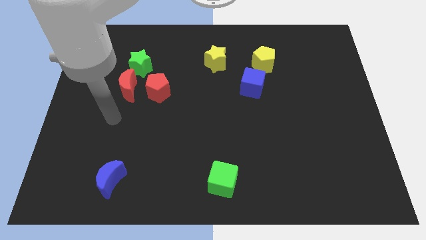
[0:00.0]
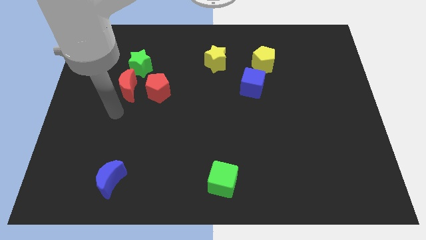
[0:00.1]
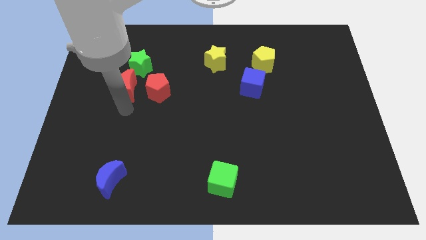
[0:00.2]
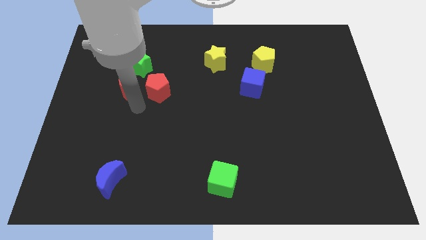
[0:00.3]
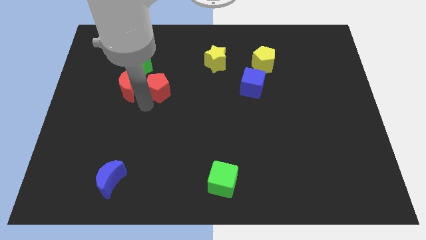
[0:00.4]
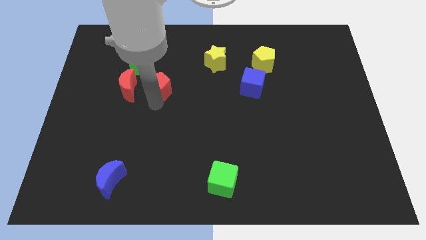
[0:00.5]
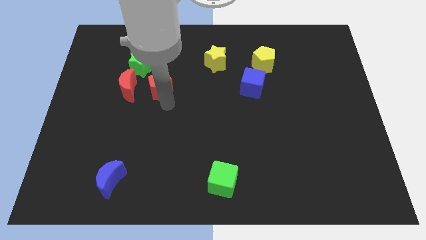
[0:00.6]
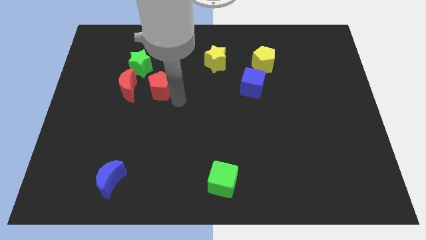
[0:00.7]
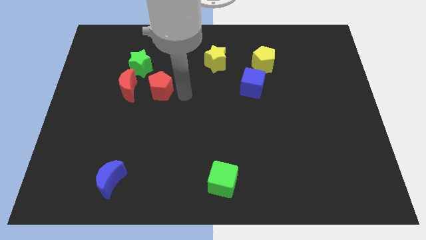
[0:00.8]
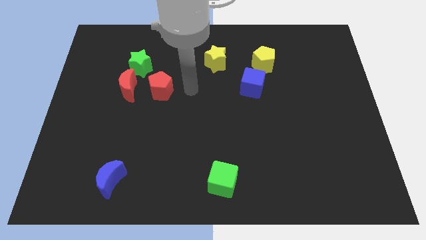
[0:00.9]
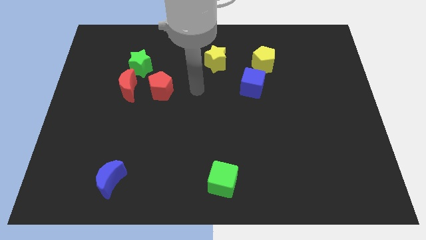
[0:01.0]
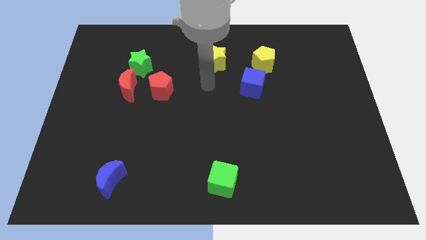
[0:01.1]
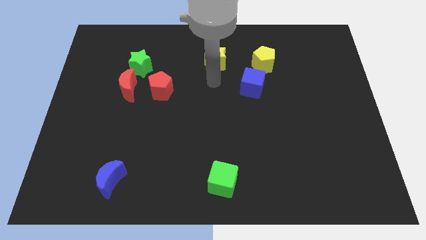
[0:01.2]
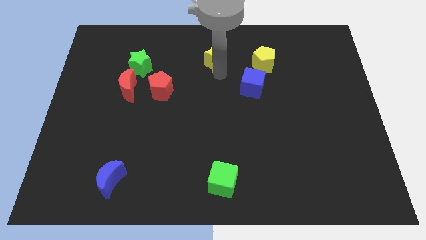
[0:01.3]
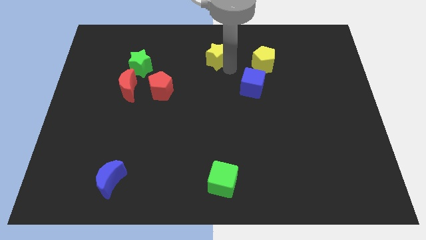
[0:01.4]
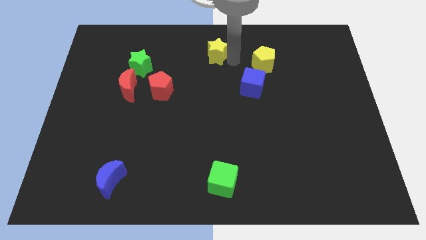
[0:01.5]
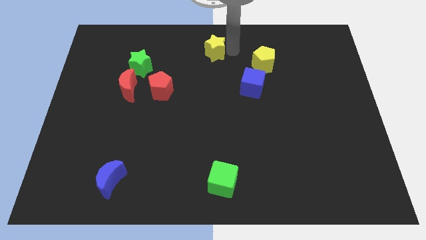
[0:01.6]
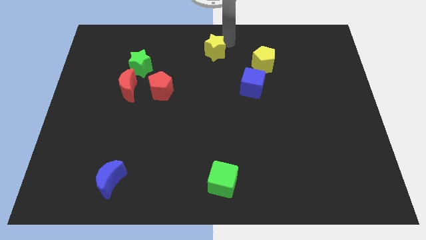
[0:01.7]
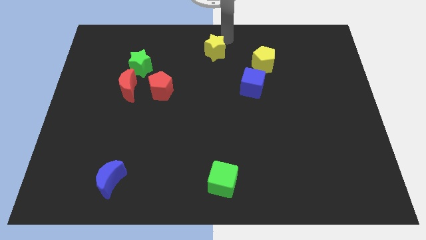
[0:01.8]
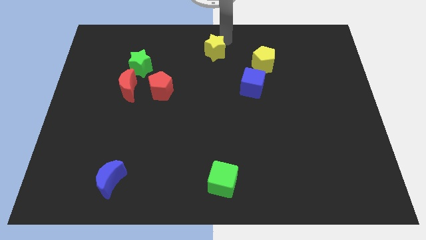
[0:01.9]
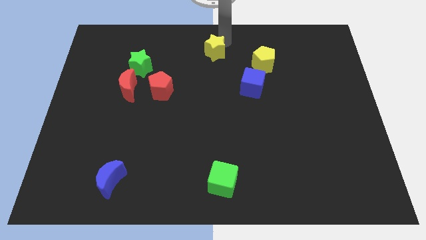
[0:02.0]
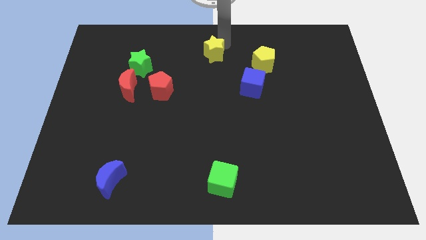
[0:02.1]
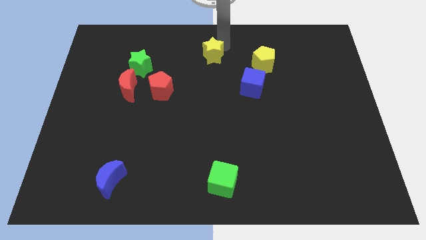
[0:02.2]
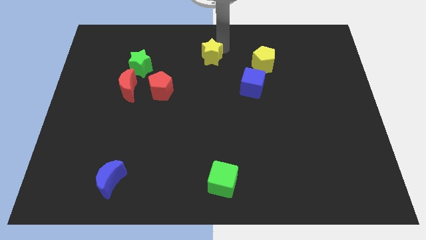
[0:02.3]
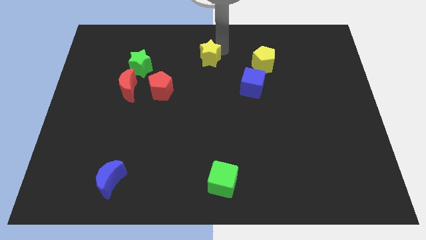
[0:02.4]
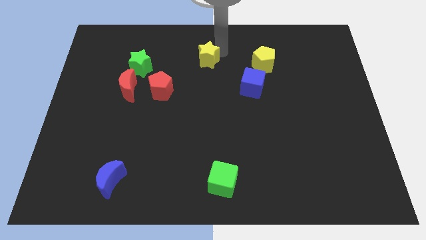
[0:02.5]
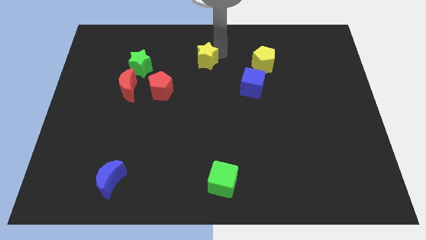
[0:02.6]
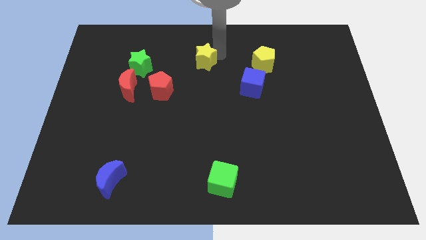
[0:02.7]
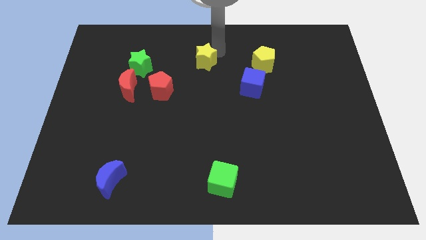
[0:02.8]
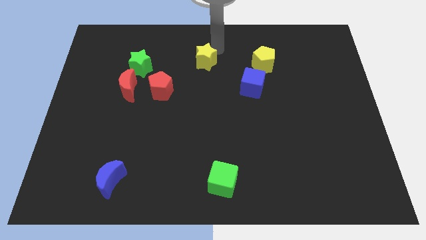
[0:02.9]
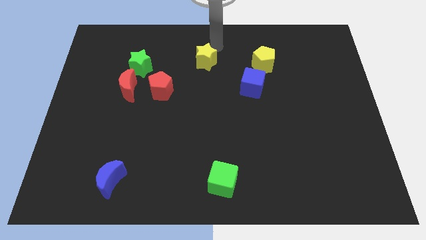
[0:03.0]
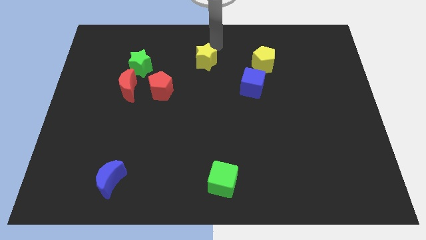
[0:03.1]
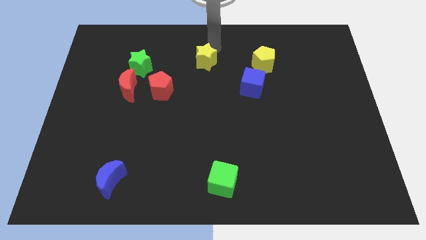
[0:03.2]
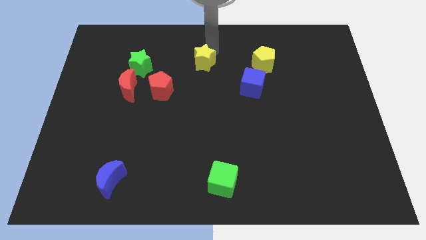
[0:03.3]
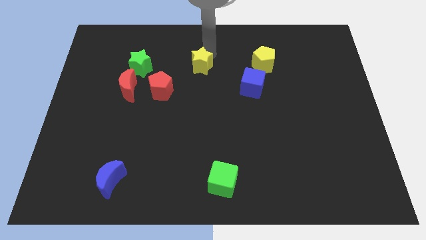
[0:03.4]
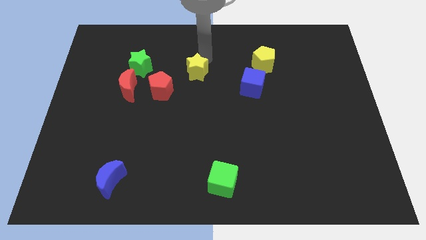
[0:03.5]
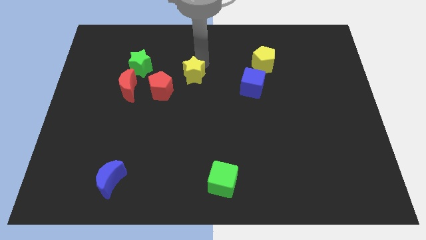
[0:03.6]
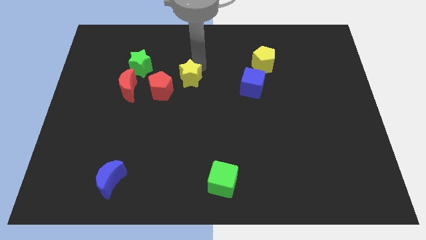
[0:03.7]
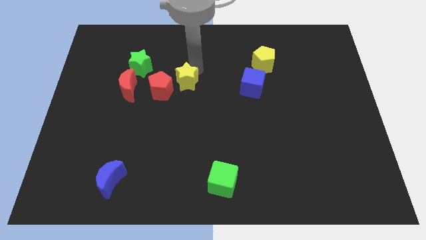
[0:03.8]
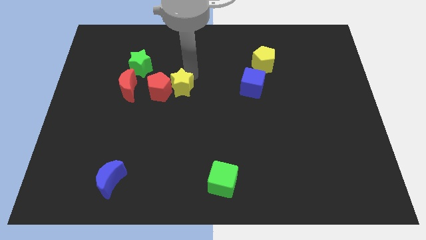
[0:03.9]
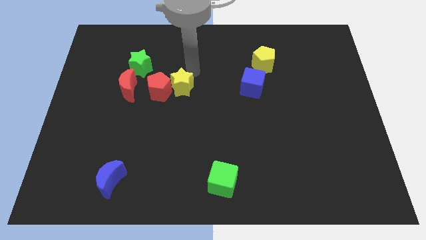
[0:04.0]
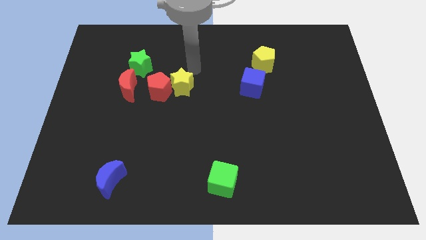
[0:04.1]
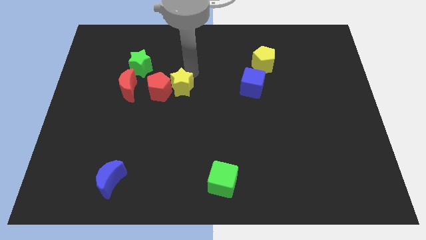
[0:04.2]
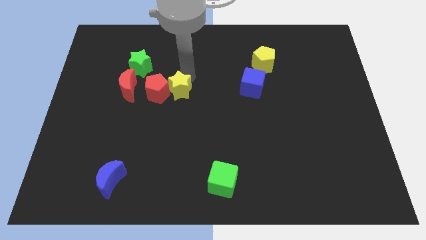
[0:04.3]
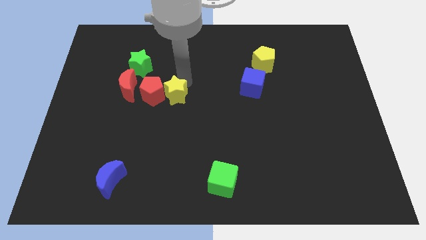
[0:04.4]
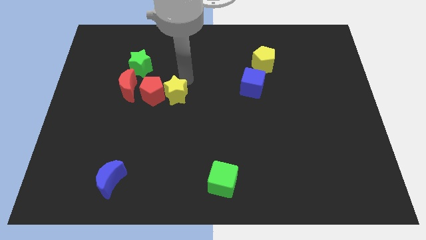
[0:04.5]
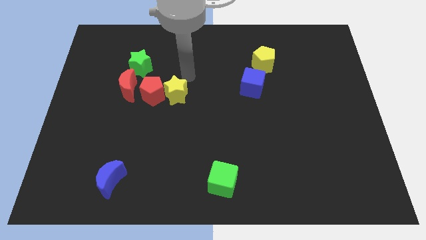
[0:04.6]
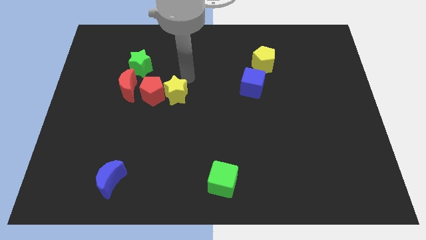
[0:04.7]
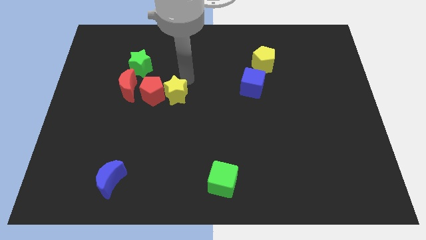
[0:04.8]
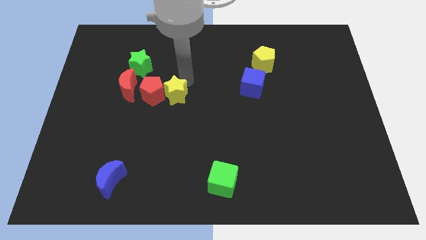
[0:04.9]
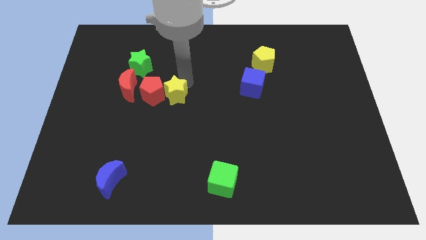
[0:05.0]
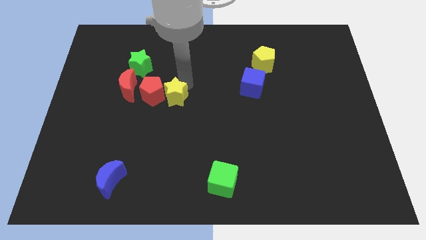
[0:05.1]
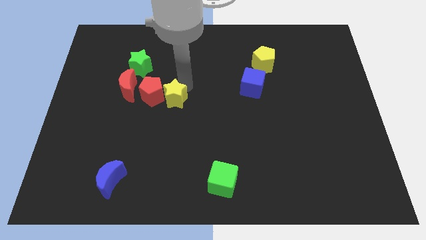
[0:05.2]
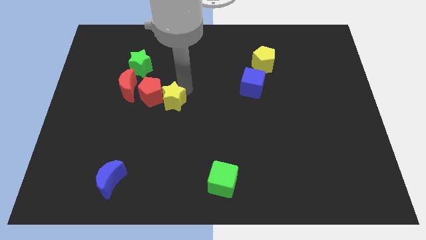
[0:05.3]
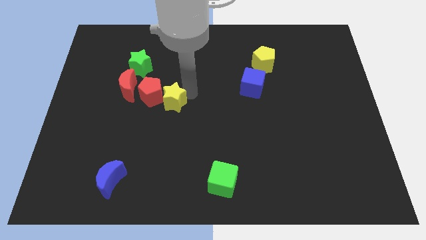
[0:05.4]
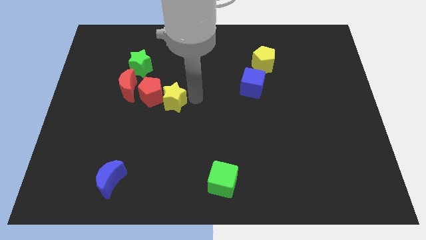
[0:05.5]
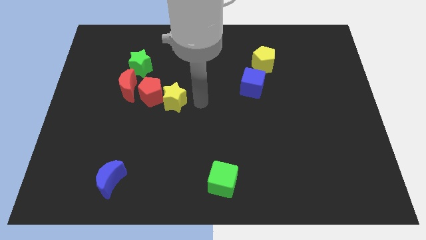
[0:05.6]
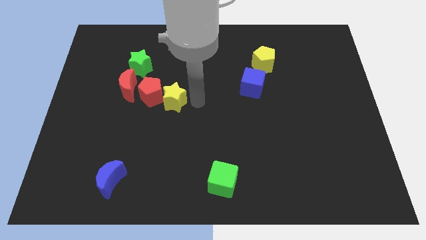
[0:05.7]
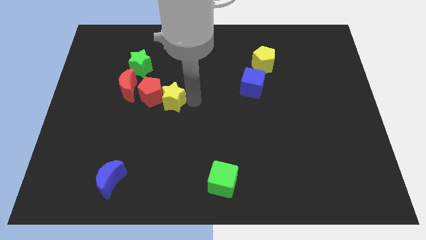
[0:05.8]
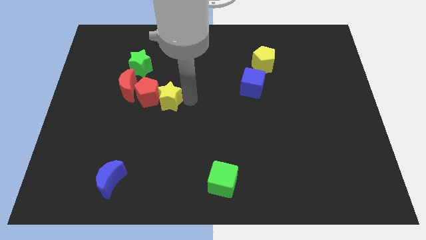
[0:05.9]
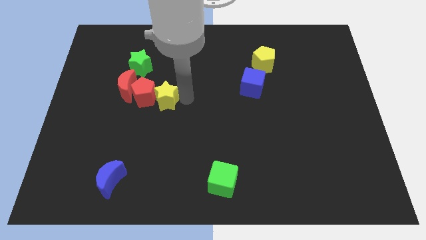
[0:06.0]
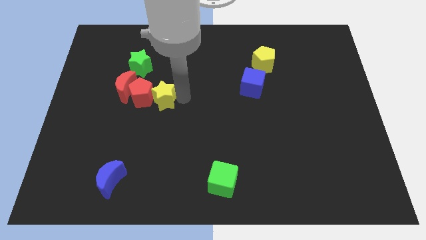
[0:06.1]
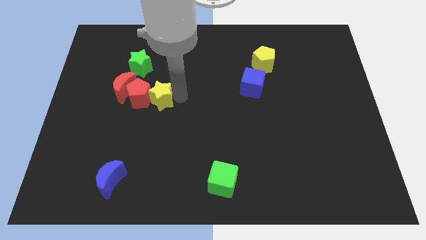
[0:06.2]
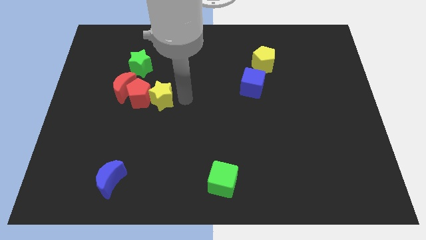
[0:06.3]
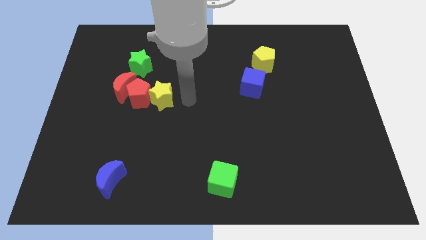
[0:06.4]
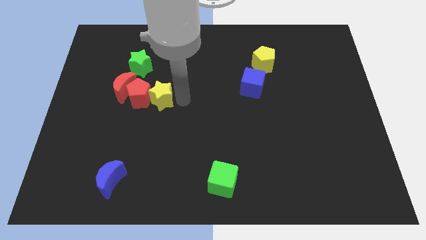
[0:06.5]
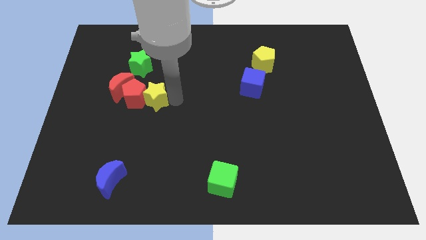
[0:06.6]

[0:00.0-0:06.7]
push the yellow star to the bottom of the green star
